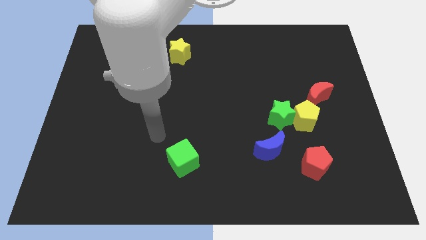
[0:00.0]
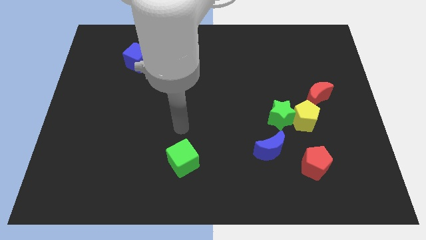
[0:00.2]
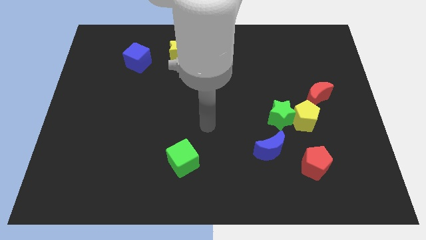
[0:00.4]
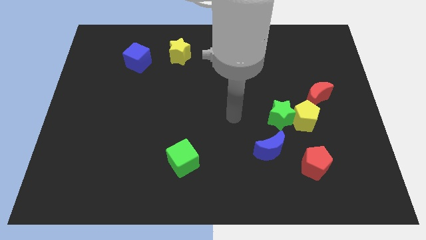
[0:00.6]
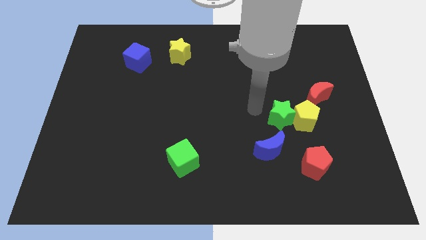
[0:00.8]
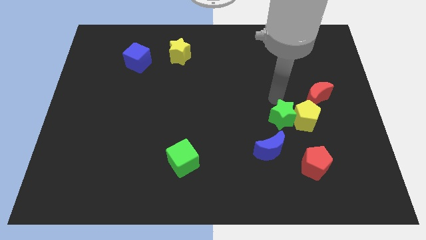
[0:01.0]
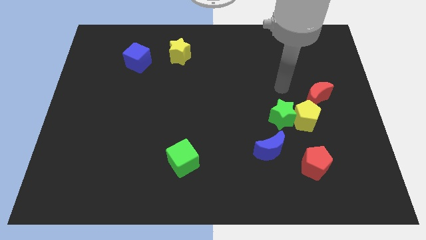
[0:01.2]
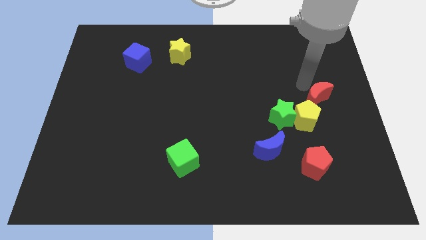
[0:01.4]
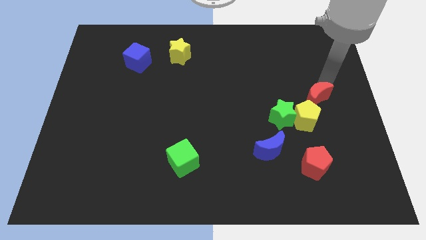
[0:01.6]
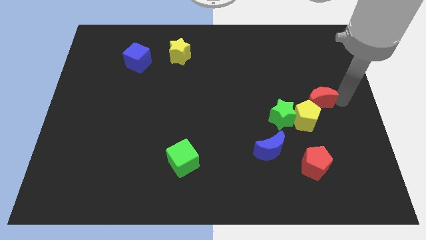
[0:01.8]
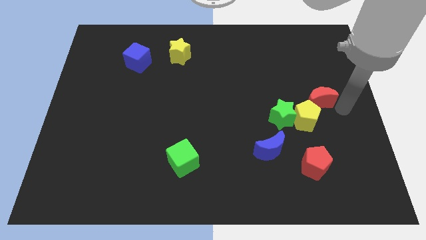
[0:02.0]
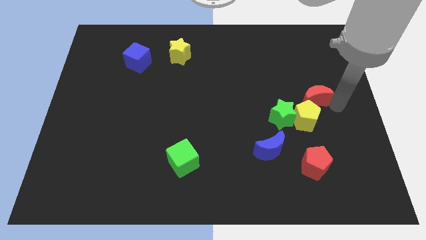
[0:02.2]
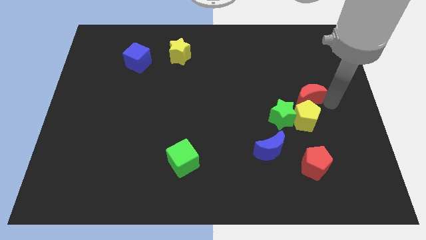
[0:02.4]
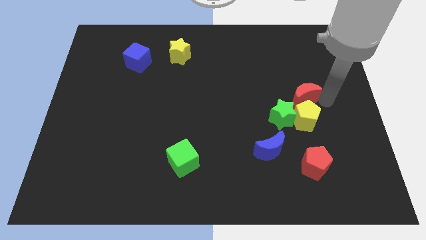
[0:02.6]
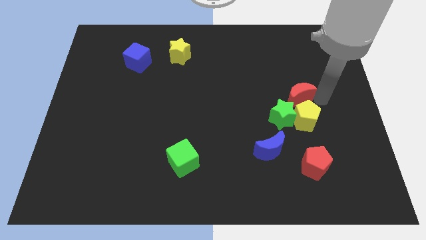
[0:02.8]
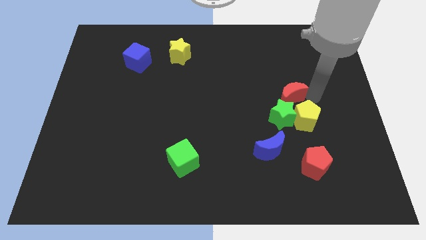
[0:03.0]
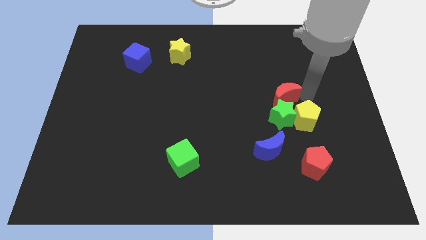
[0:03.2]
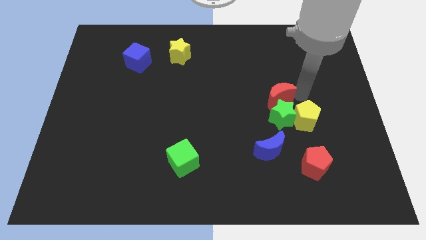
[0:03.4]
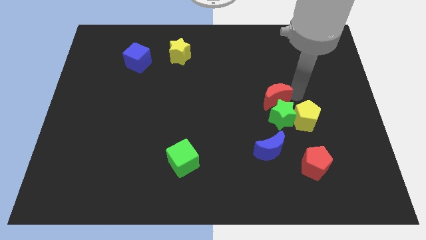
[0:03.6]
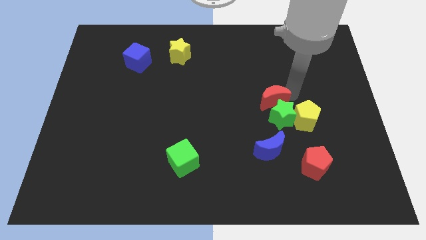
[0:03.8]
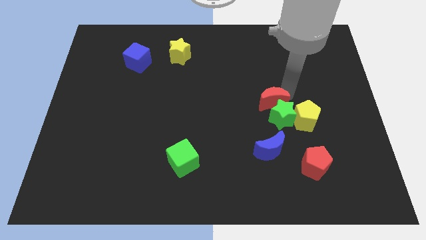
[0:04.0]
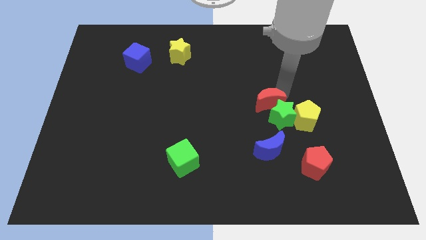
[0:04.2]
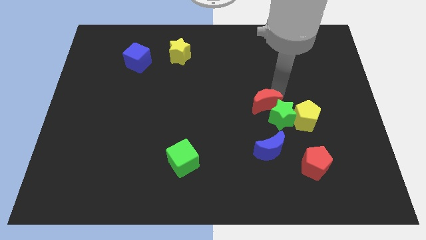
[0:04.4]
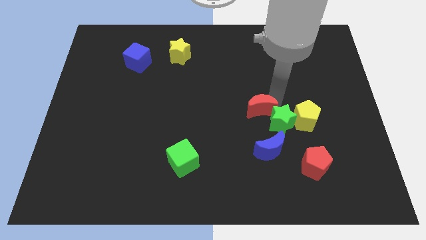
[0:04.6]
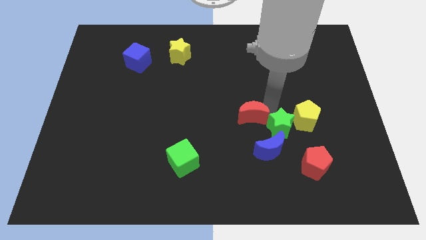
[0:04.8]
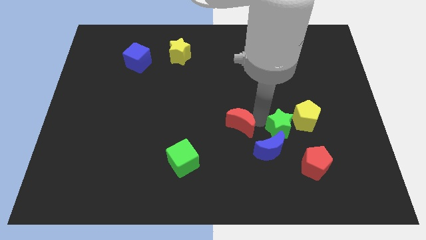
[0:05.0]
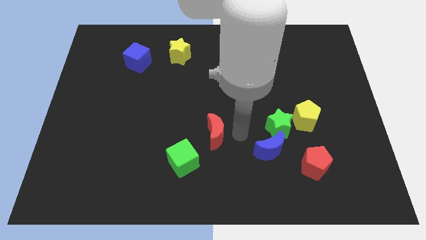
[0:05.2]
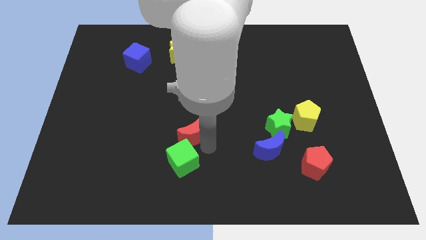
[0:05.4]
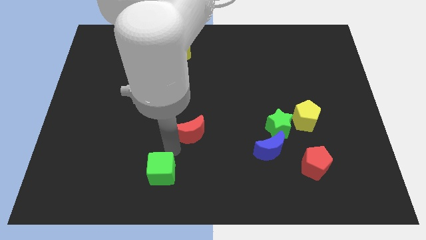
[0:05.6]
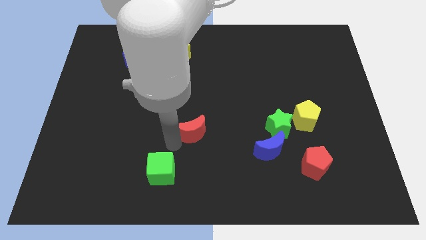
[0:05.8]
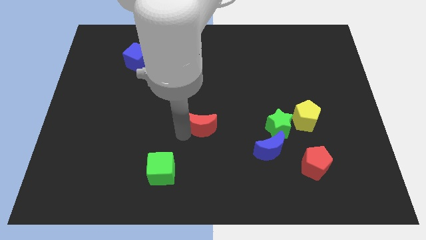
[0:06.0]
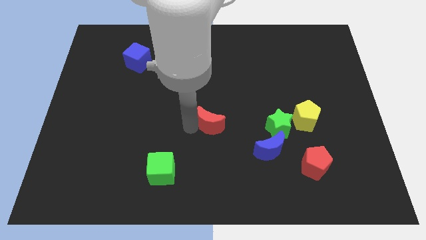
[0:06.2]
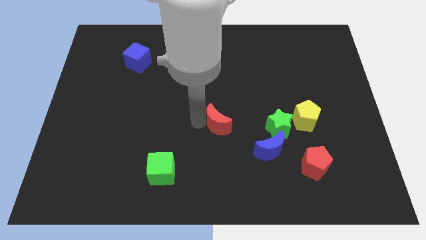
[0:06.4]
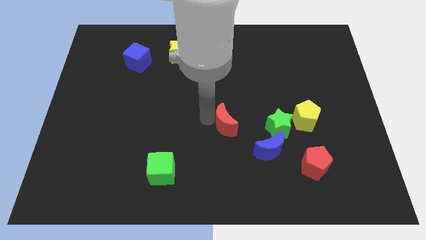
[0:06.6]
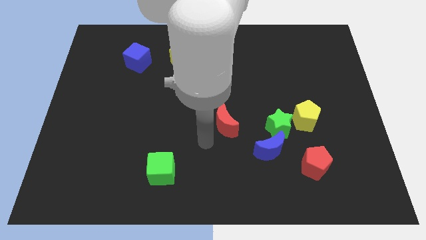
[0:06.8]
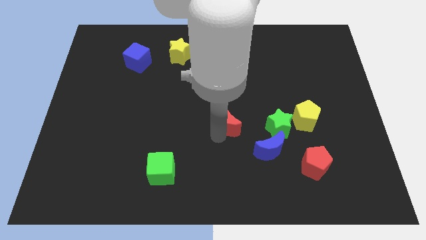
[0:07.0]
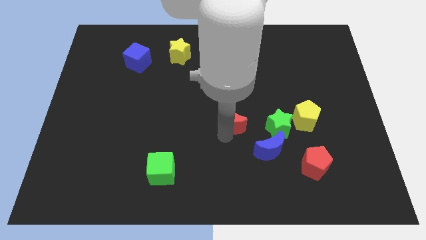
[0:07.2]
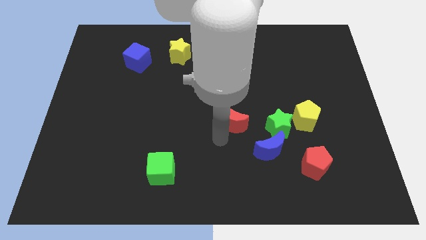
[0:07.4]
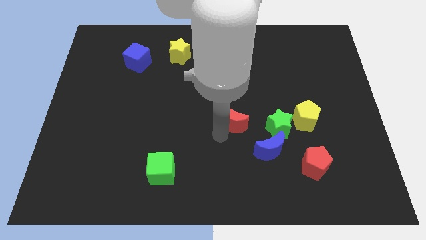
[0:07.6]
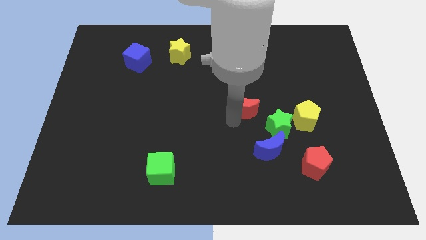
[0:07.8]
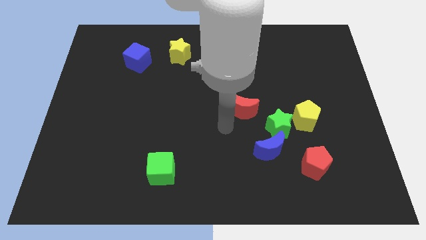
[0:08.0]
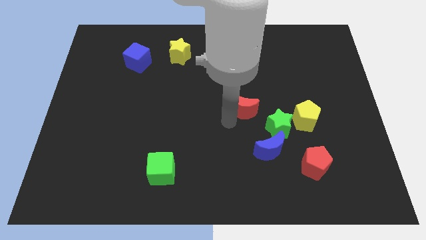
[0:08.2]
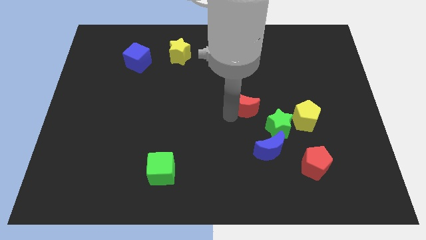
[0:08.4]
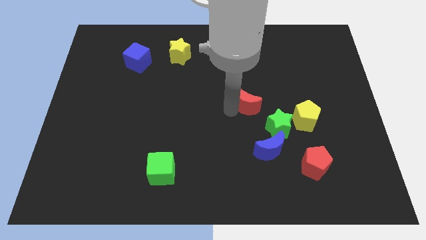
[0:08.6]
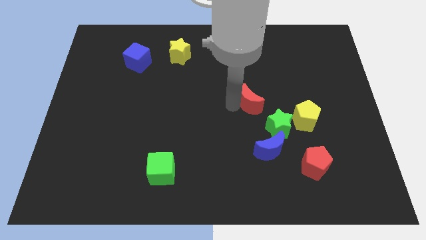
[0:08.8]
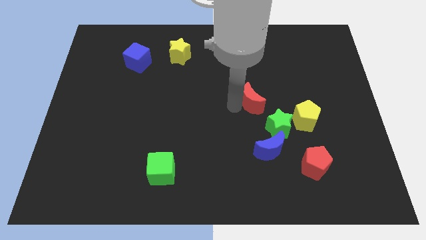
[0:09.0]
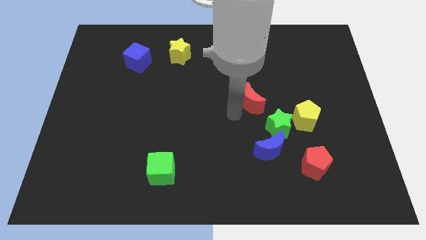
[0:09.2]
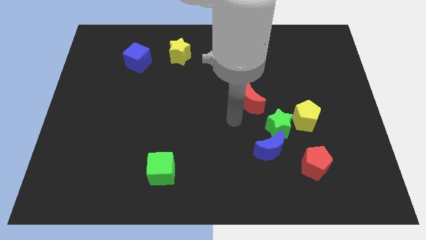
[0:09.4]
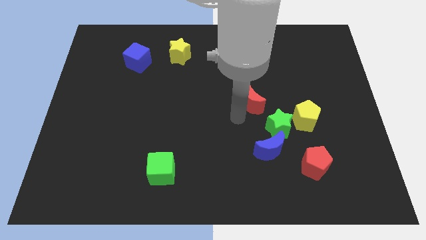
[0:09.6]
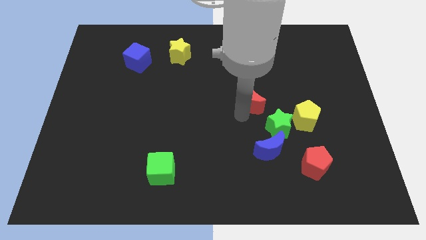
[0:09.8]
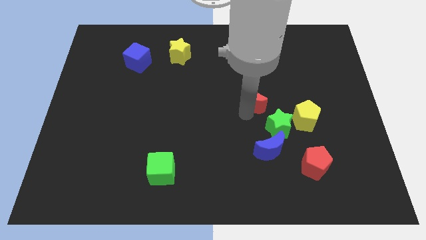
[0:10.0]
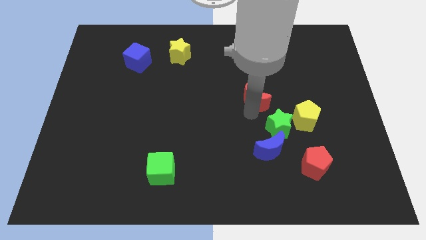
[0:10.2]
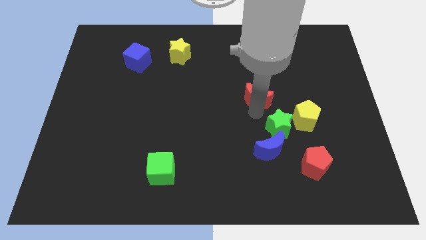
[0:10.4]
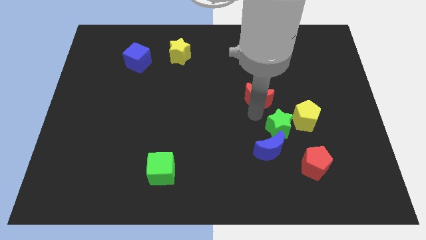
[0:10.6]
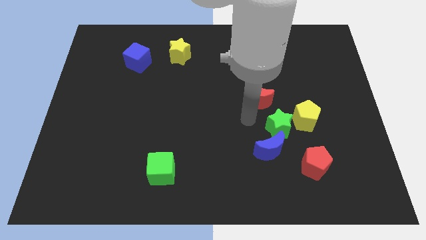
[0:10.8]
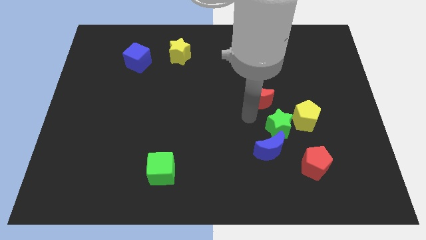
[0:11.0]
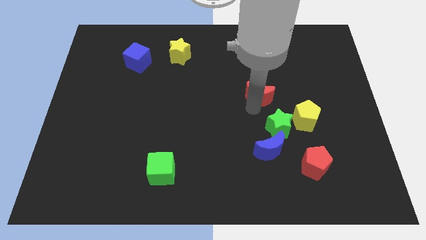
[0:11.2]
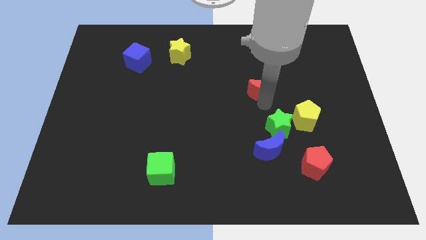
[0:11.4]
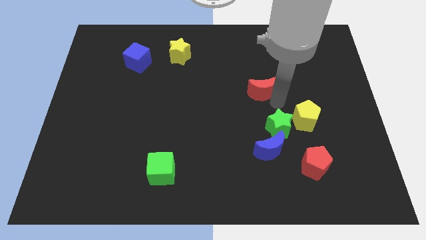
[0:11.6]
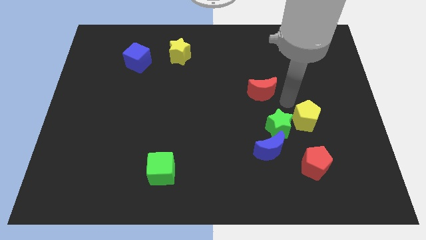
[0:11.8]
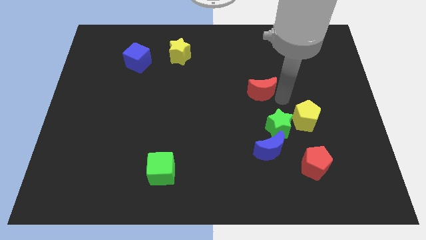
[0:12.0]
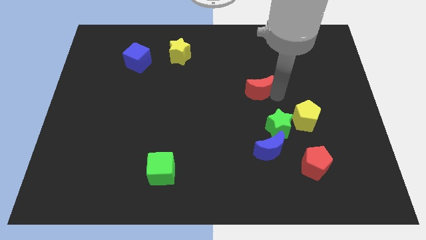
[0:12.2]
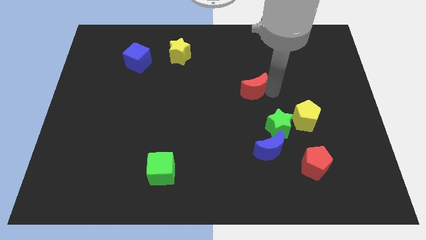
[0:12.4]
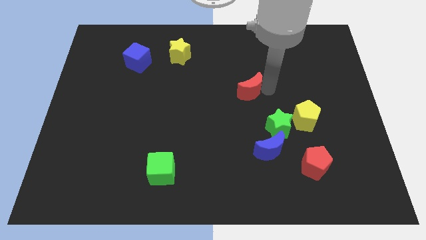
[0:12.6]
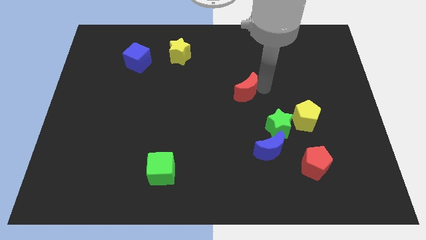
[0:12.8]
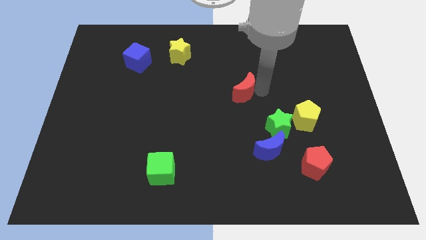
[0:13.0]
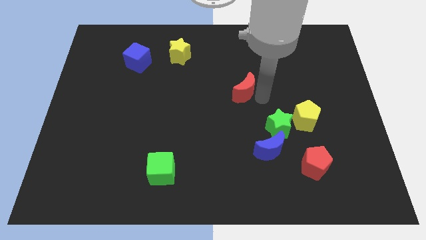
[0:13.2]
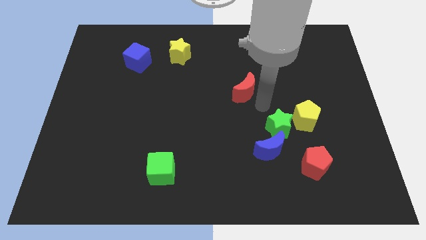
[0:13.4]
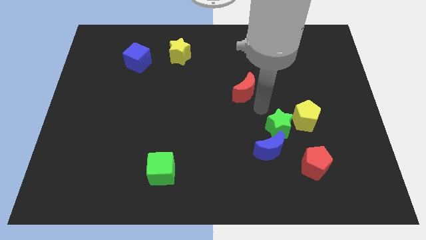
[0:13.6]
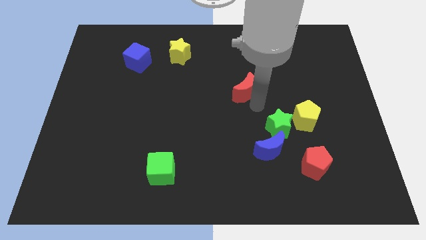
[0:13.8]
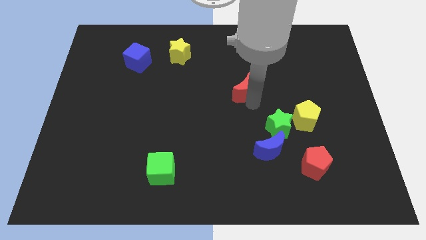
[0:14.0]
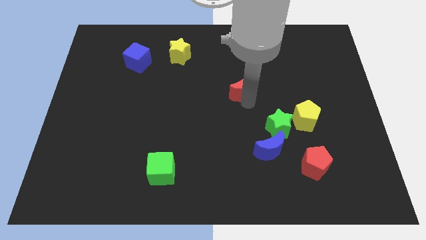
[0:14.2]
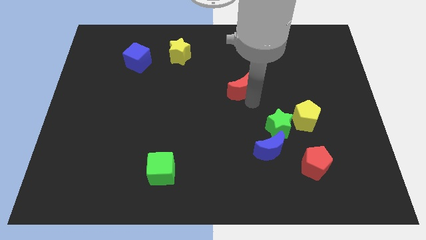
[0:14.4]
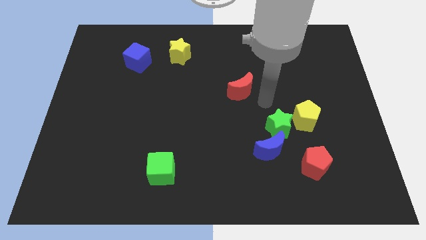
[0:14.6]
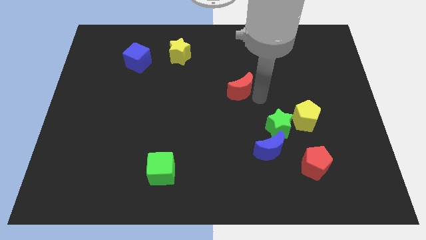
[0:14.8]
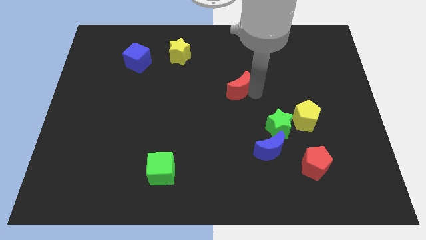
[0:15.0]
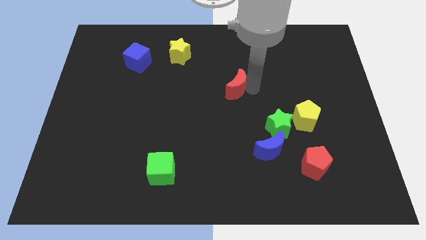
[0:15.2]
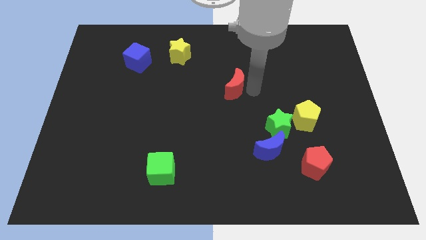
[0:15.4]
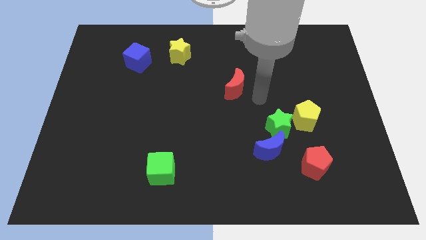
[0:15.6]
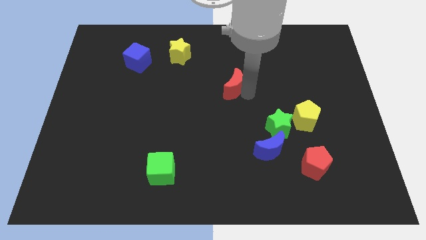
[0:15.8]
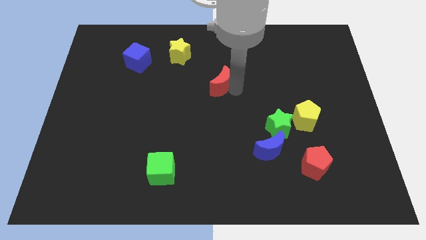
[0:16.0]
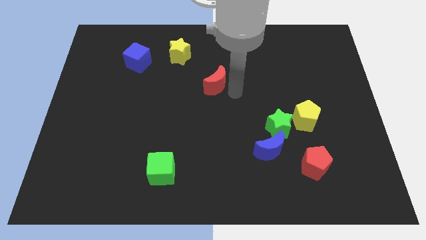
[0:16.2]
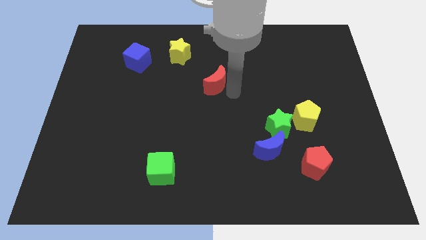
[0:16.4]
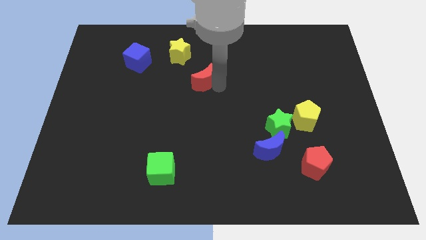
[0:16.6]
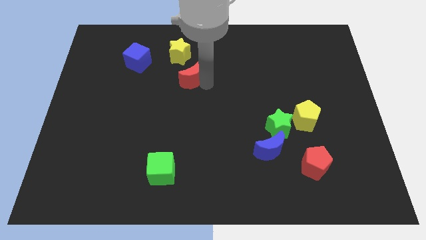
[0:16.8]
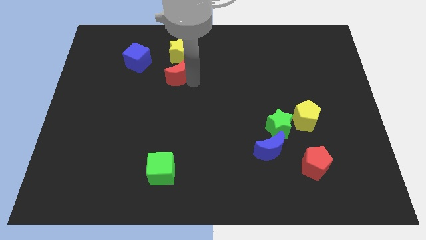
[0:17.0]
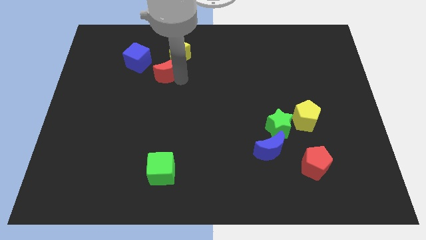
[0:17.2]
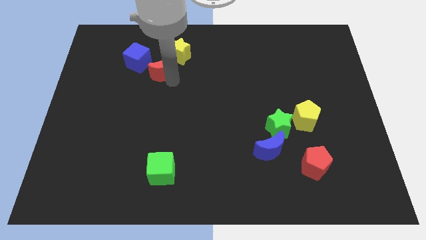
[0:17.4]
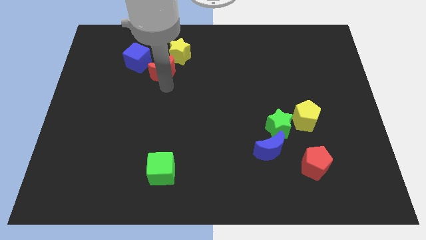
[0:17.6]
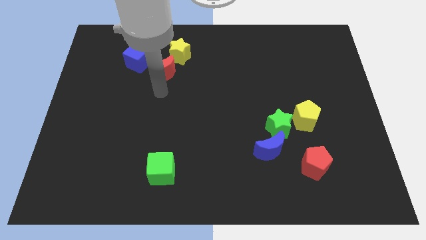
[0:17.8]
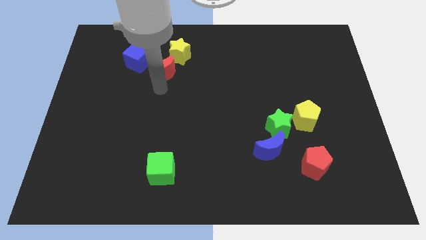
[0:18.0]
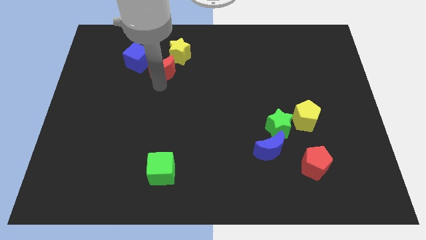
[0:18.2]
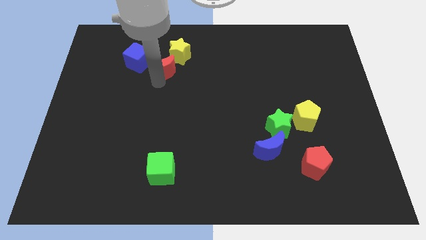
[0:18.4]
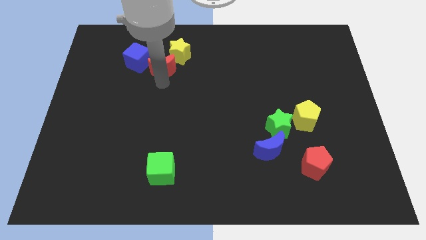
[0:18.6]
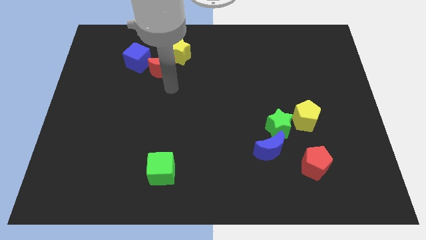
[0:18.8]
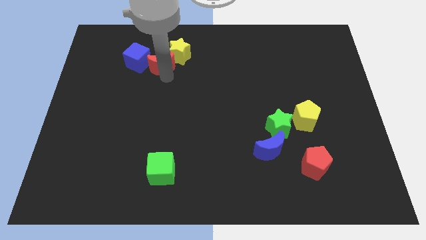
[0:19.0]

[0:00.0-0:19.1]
put the red moon just left of the yellow star
